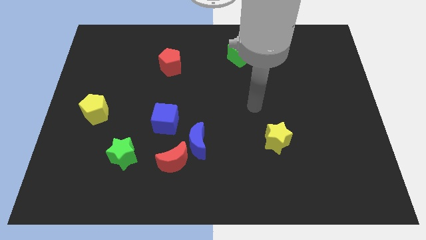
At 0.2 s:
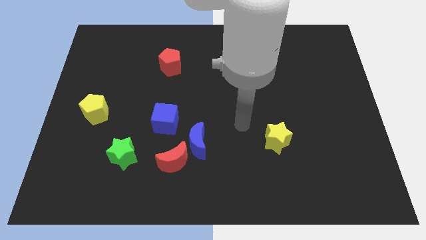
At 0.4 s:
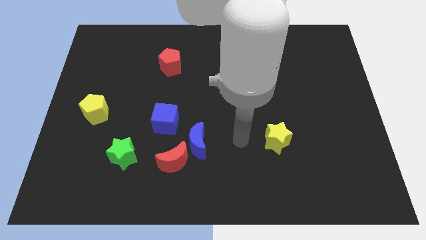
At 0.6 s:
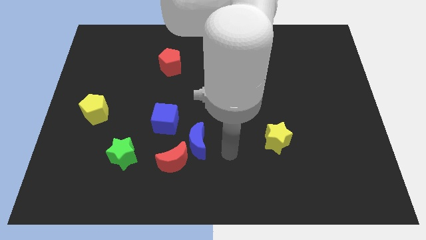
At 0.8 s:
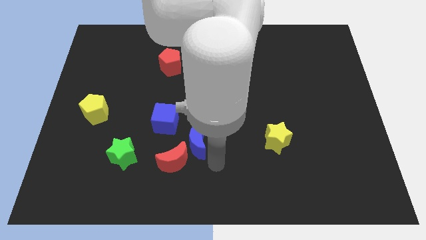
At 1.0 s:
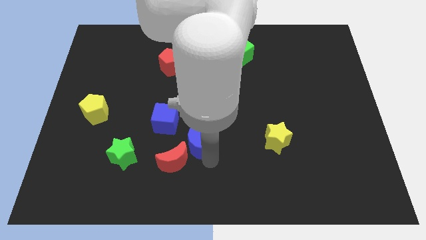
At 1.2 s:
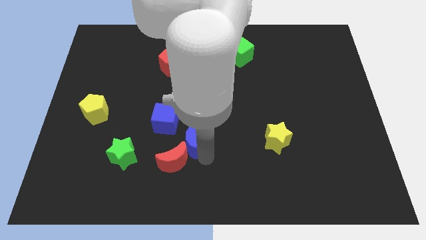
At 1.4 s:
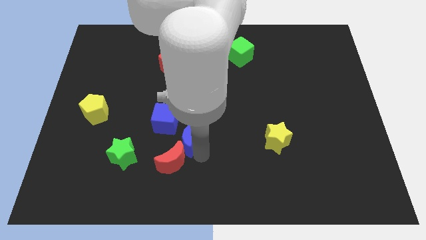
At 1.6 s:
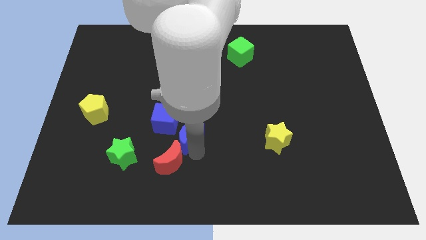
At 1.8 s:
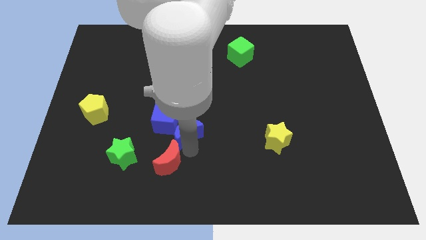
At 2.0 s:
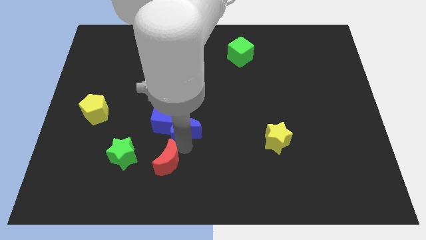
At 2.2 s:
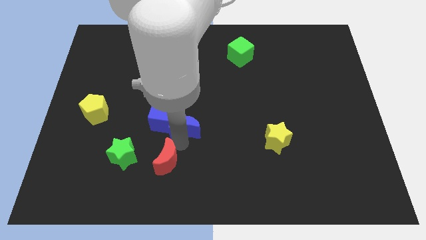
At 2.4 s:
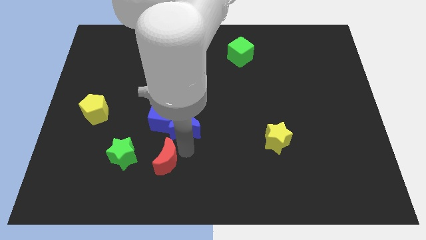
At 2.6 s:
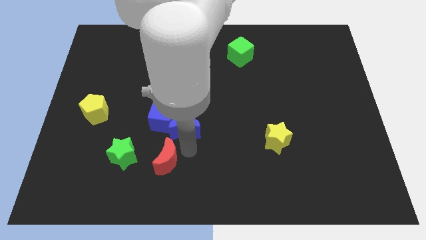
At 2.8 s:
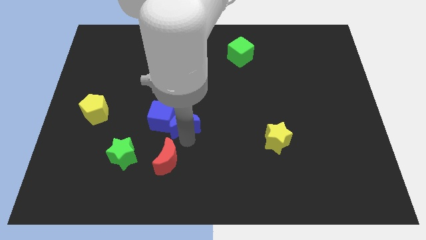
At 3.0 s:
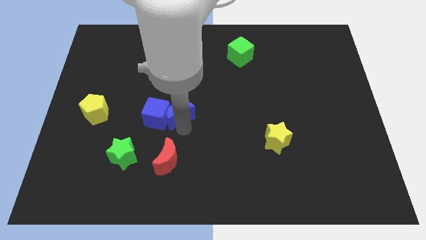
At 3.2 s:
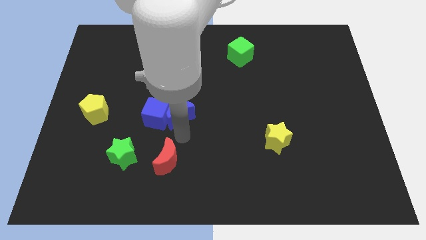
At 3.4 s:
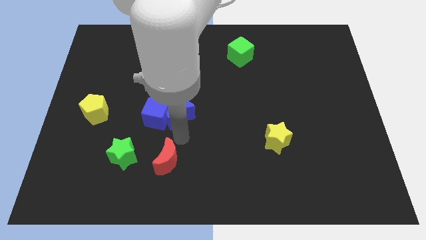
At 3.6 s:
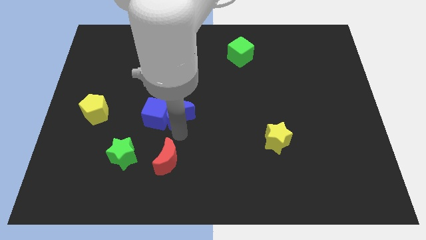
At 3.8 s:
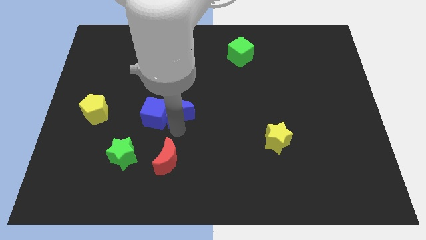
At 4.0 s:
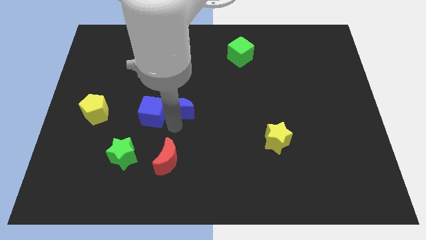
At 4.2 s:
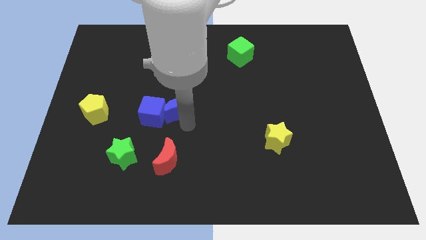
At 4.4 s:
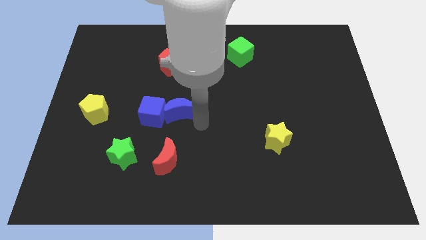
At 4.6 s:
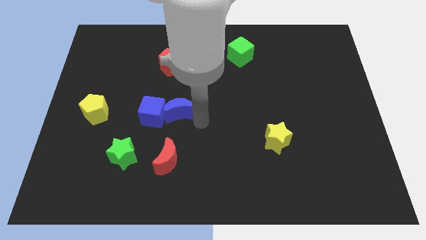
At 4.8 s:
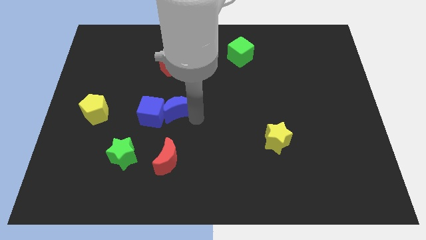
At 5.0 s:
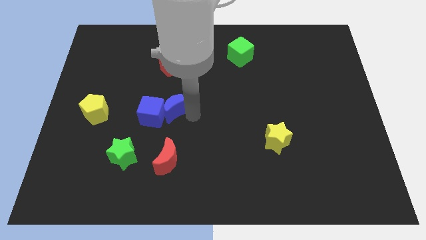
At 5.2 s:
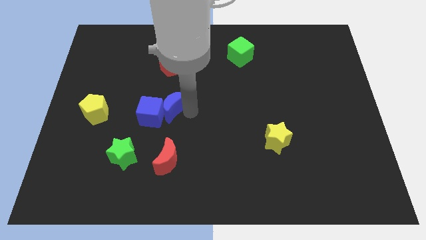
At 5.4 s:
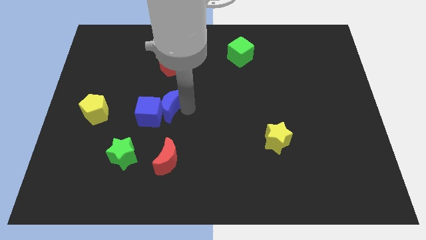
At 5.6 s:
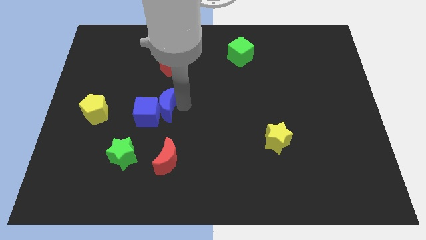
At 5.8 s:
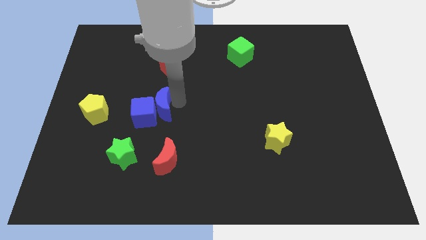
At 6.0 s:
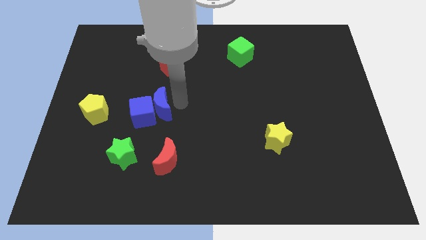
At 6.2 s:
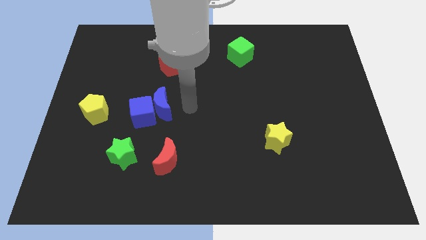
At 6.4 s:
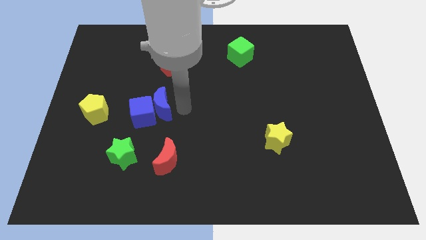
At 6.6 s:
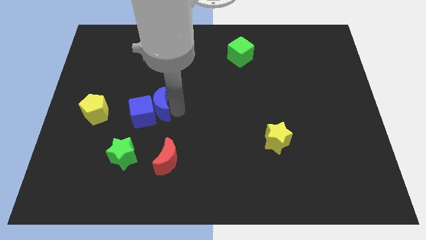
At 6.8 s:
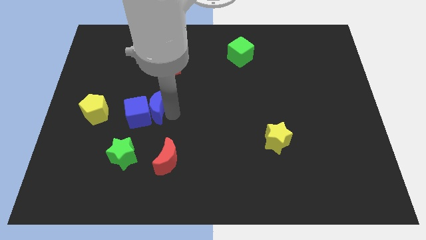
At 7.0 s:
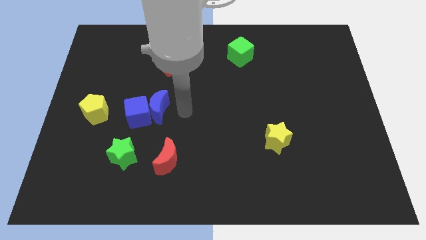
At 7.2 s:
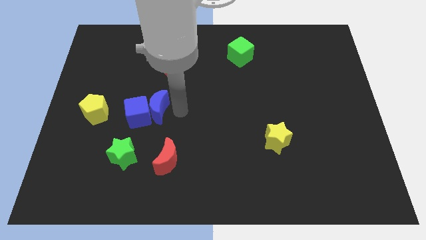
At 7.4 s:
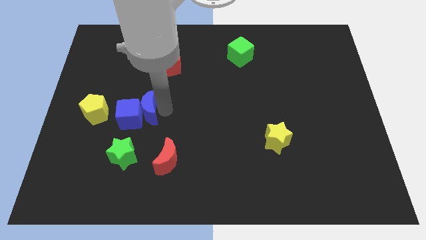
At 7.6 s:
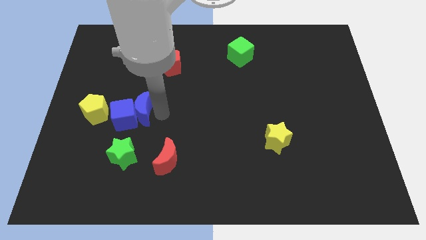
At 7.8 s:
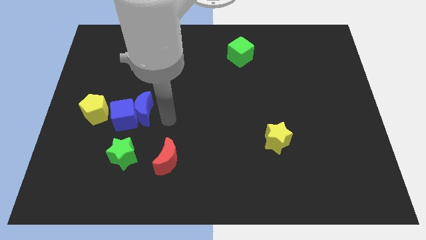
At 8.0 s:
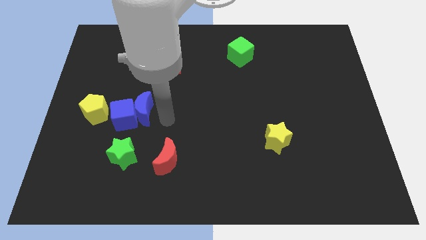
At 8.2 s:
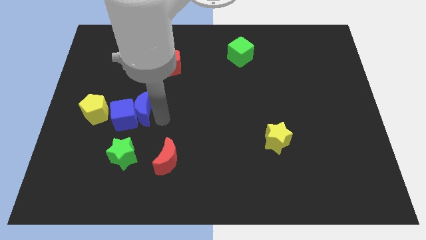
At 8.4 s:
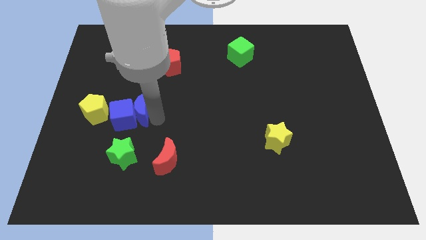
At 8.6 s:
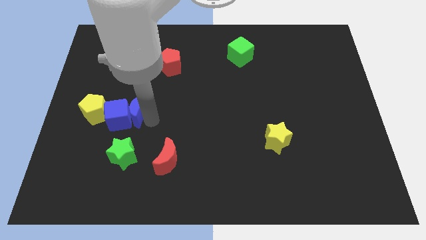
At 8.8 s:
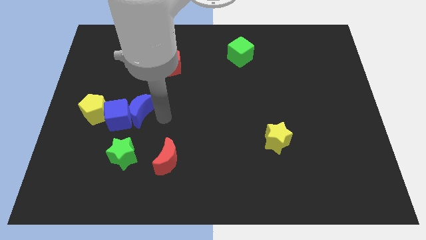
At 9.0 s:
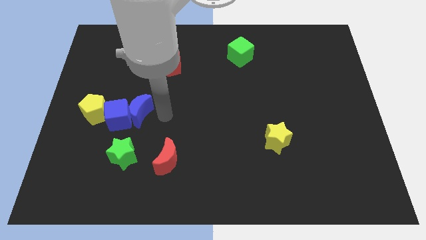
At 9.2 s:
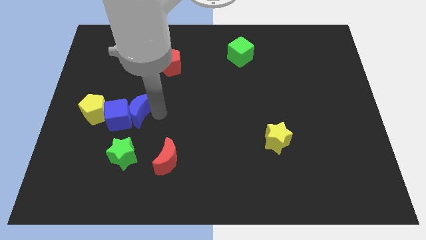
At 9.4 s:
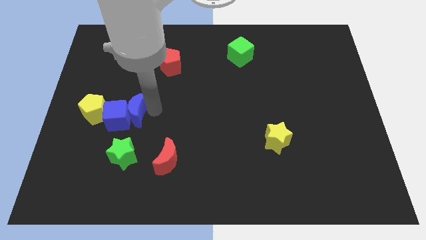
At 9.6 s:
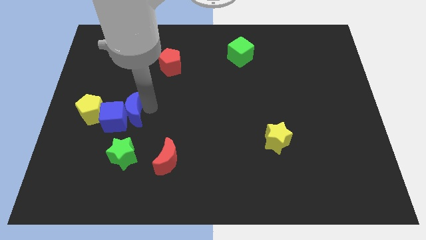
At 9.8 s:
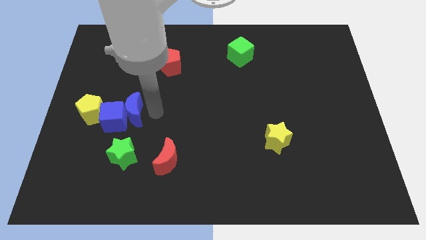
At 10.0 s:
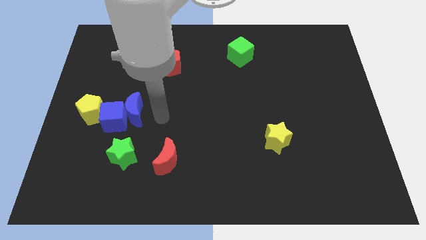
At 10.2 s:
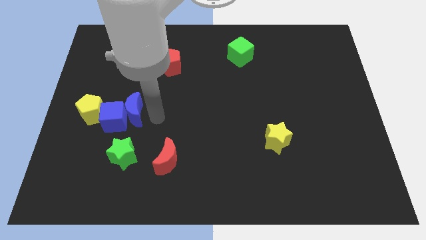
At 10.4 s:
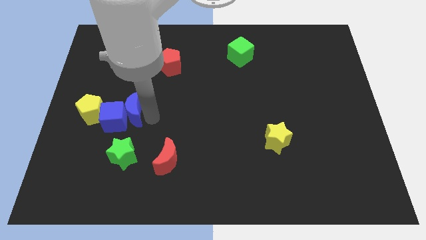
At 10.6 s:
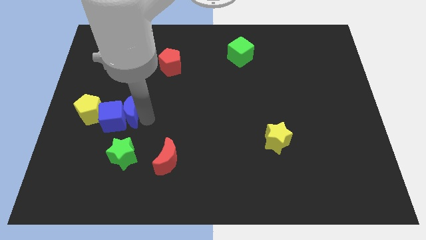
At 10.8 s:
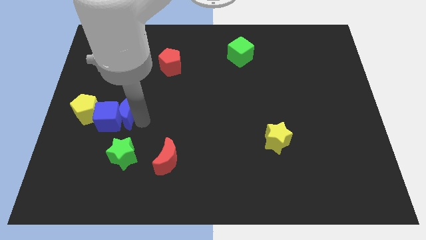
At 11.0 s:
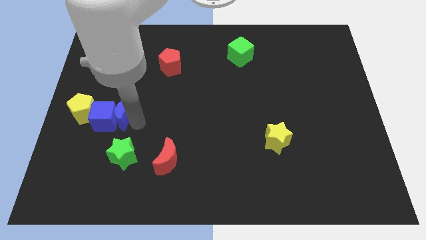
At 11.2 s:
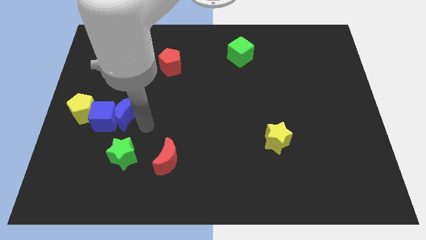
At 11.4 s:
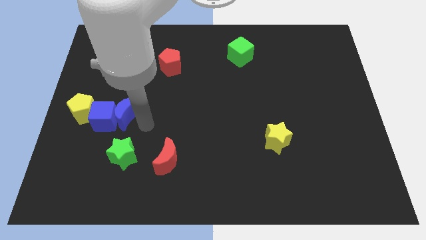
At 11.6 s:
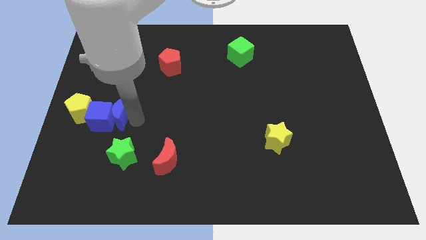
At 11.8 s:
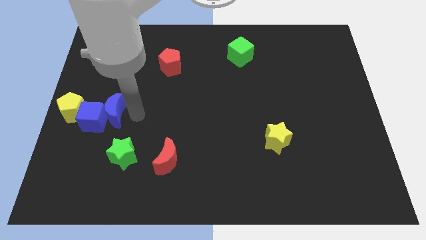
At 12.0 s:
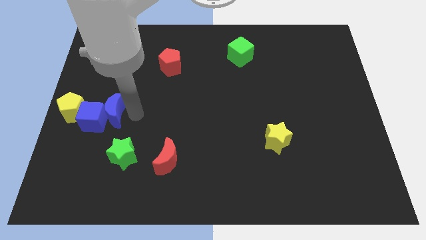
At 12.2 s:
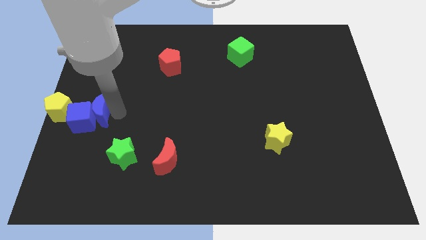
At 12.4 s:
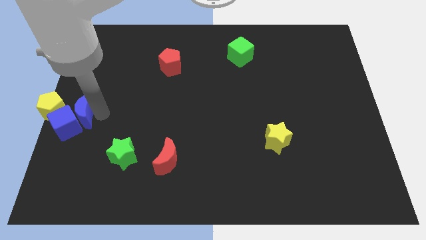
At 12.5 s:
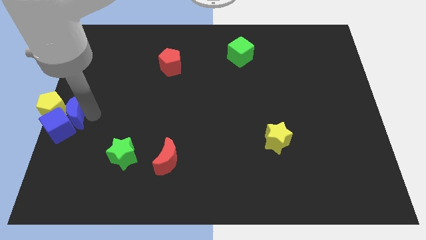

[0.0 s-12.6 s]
push the blue moon to the yellow pentagon
